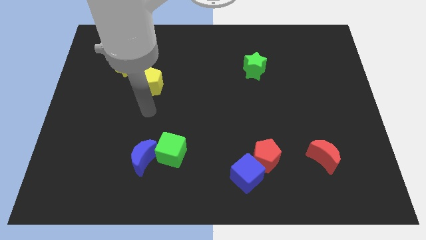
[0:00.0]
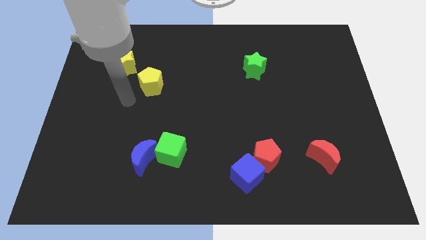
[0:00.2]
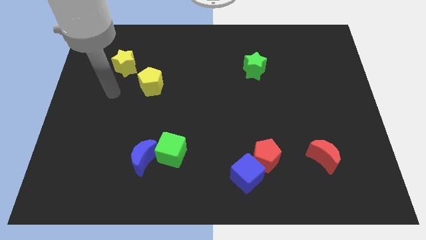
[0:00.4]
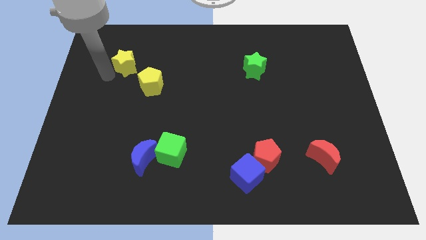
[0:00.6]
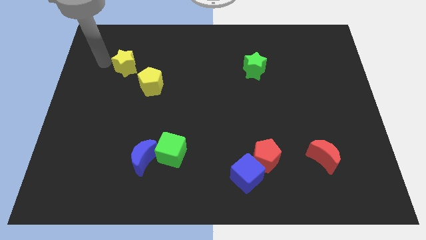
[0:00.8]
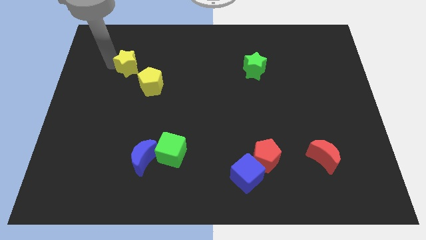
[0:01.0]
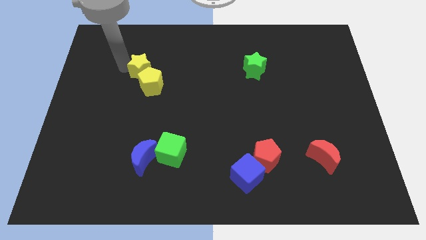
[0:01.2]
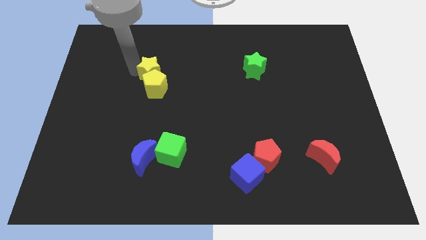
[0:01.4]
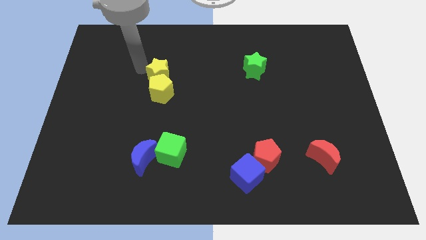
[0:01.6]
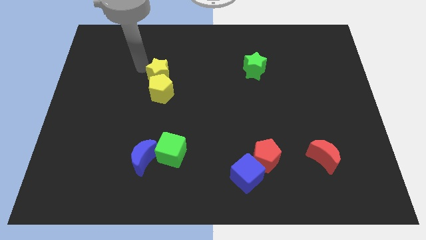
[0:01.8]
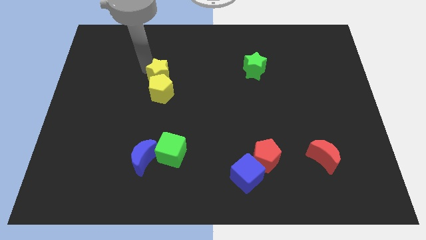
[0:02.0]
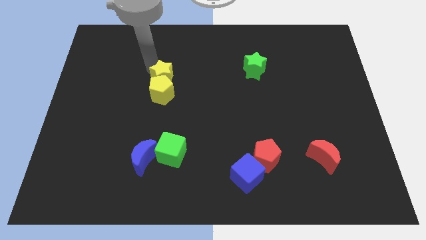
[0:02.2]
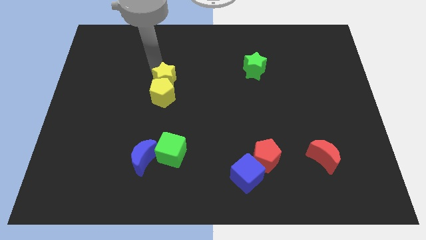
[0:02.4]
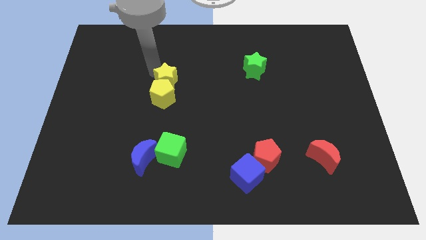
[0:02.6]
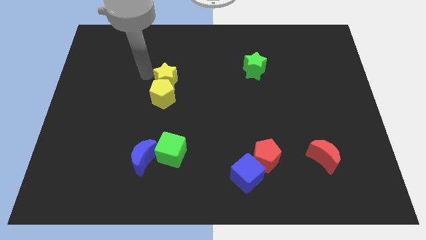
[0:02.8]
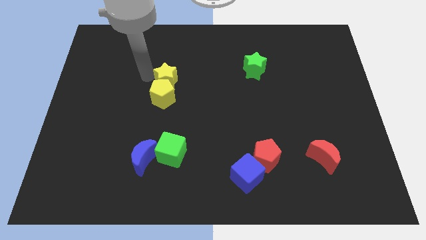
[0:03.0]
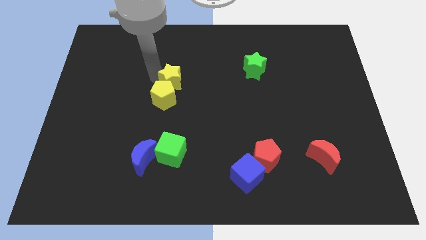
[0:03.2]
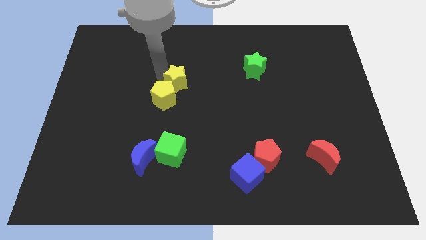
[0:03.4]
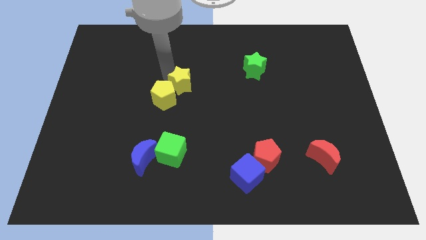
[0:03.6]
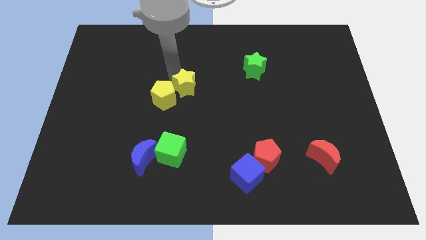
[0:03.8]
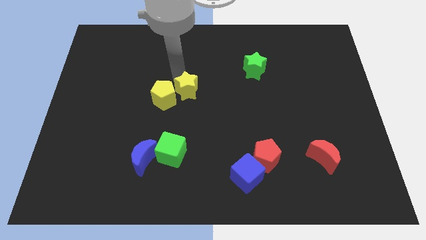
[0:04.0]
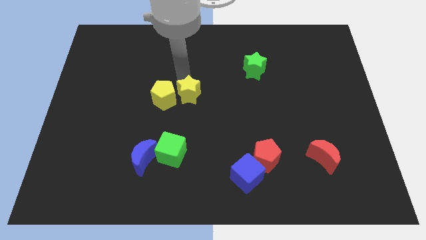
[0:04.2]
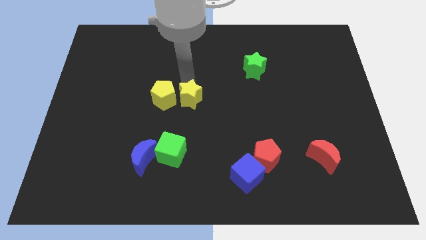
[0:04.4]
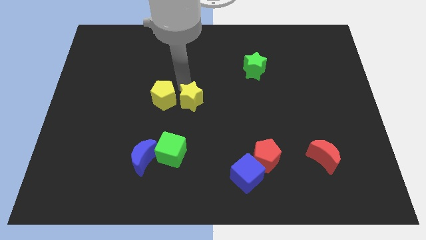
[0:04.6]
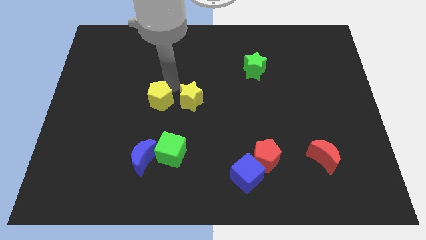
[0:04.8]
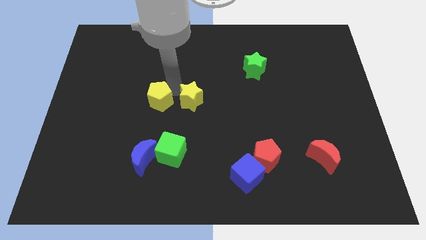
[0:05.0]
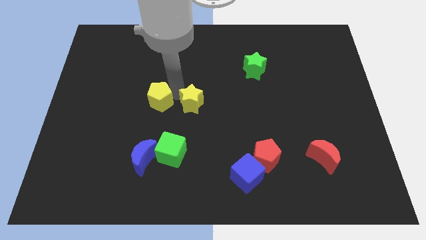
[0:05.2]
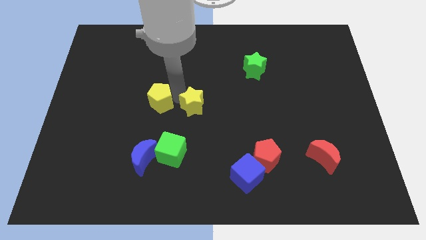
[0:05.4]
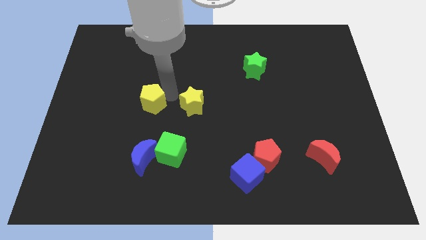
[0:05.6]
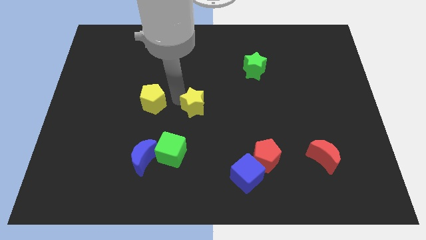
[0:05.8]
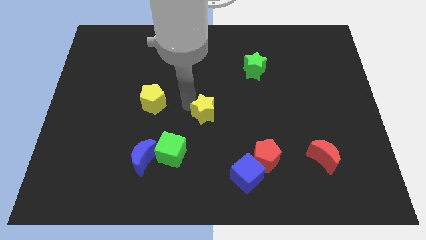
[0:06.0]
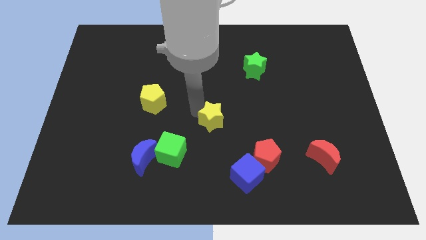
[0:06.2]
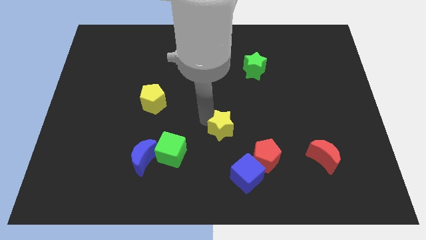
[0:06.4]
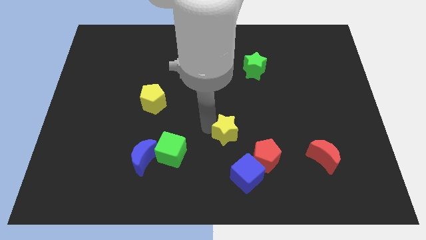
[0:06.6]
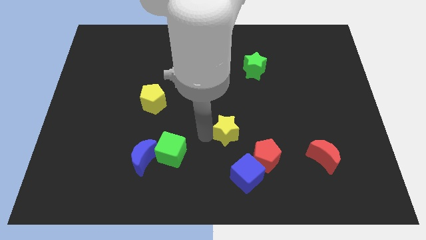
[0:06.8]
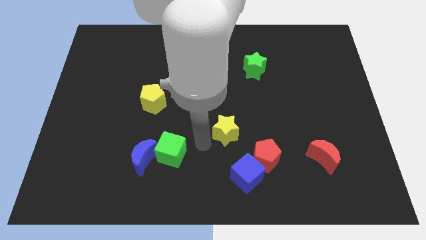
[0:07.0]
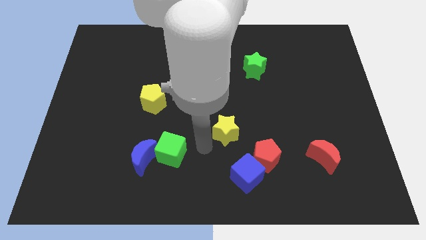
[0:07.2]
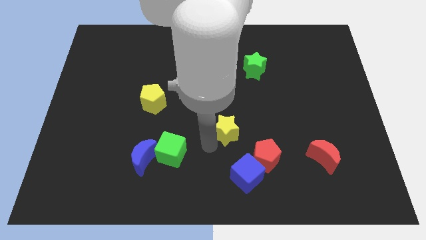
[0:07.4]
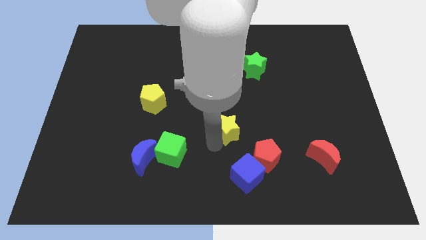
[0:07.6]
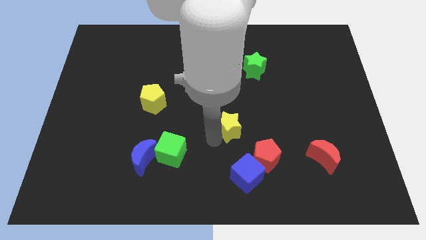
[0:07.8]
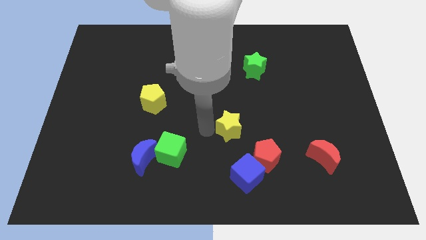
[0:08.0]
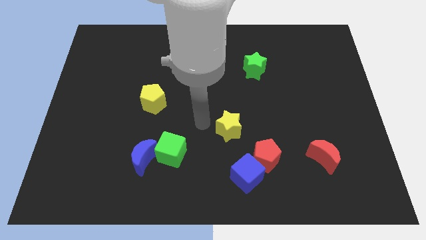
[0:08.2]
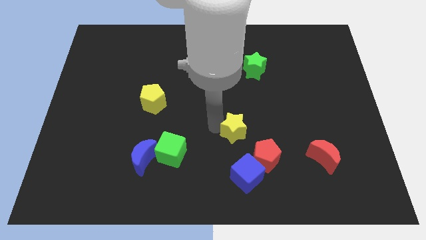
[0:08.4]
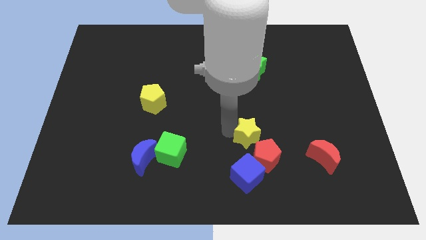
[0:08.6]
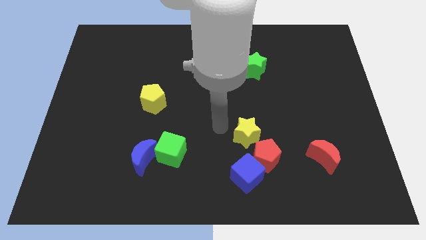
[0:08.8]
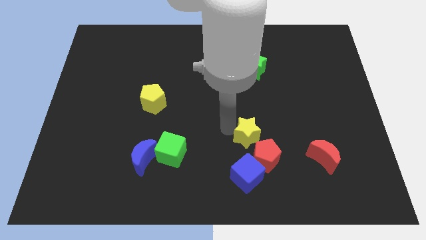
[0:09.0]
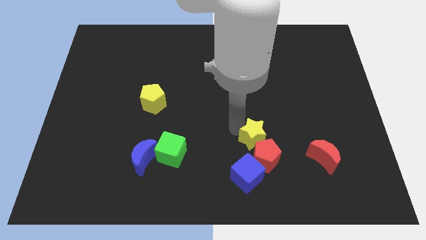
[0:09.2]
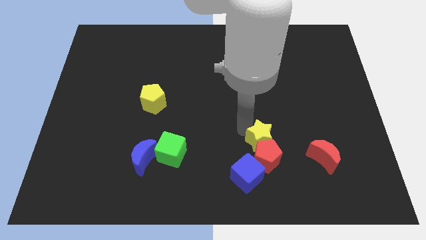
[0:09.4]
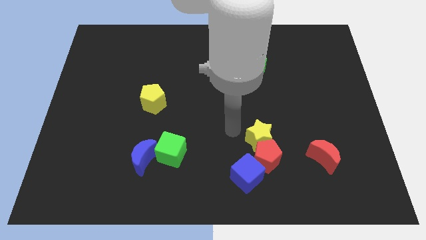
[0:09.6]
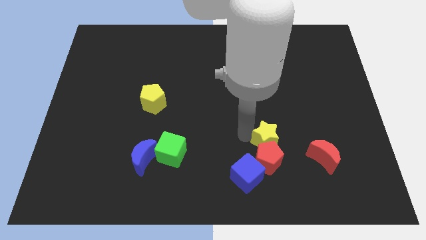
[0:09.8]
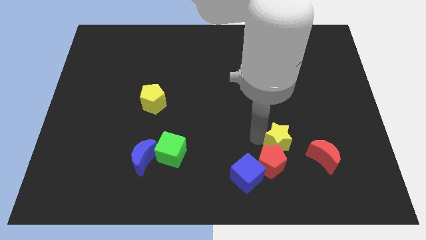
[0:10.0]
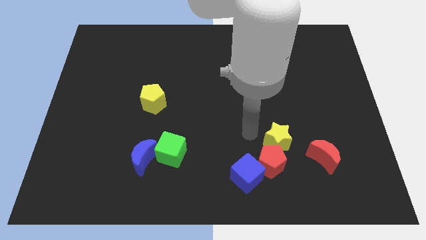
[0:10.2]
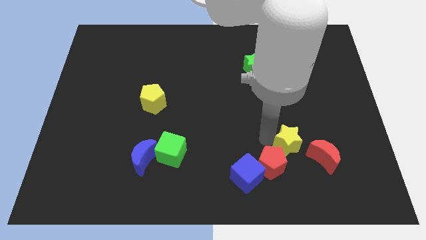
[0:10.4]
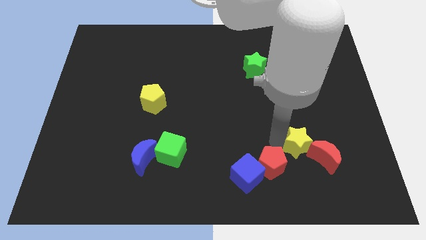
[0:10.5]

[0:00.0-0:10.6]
put the yellow star close to the red moon

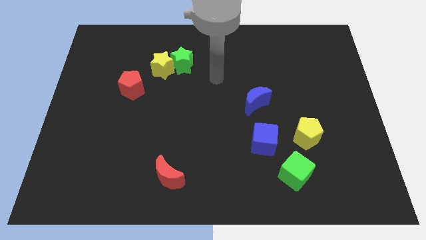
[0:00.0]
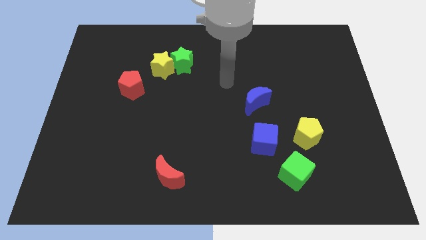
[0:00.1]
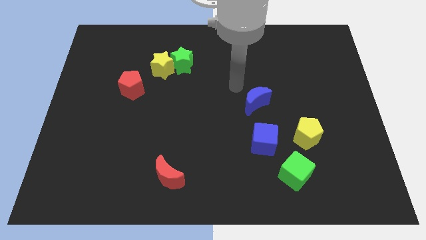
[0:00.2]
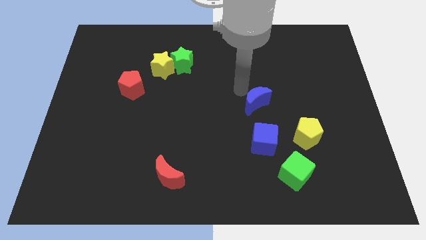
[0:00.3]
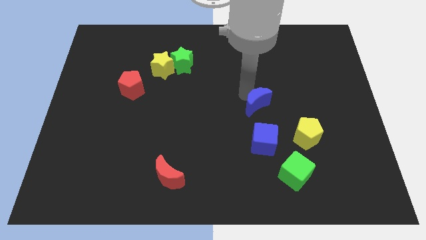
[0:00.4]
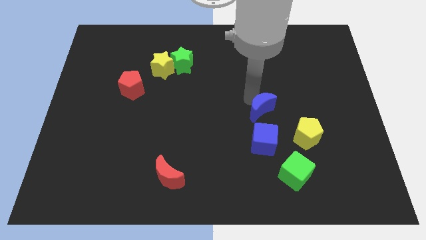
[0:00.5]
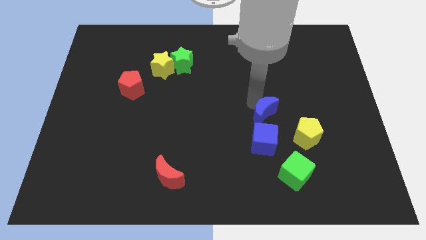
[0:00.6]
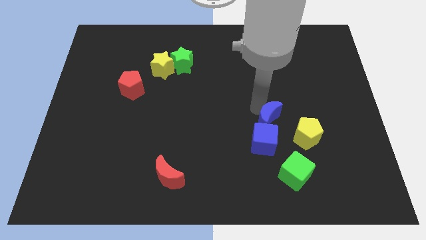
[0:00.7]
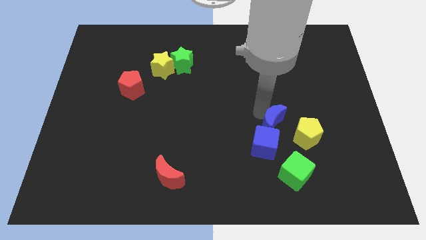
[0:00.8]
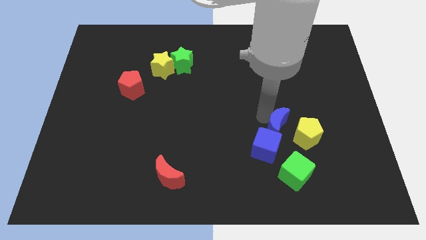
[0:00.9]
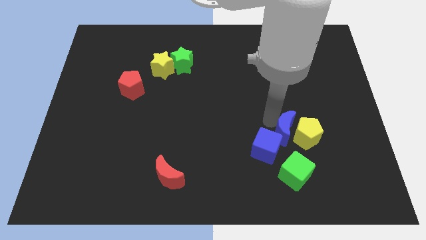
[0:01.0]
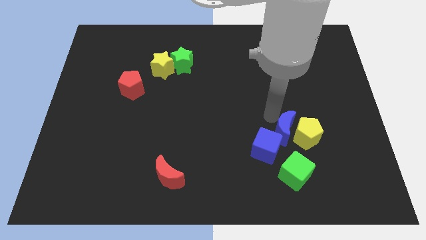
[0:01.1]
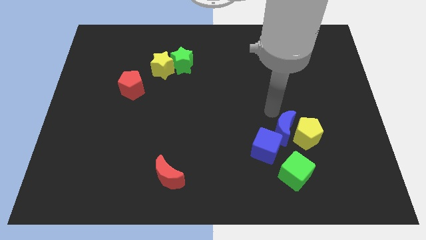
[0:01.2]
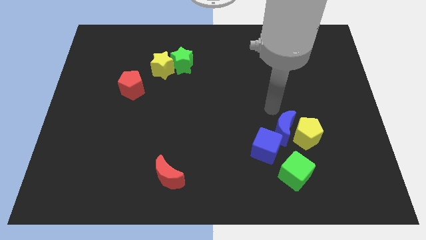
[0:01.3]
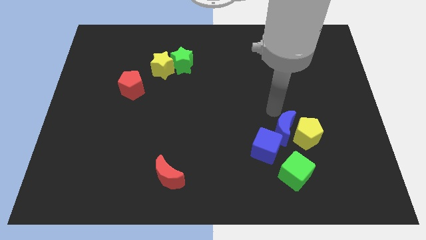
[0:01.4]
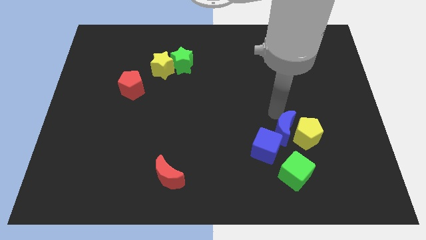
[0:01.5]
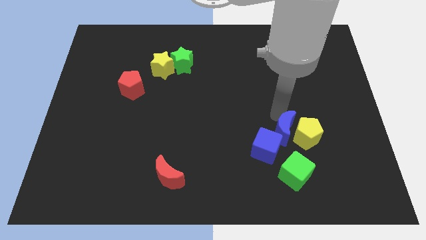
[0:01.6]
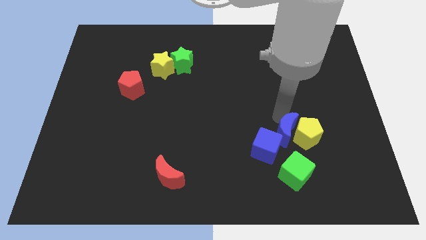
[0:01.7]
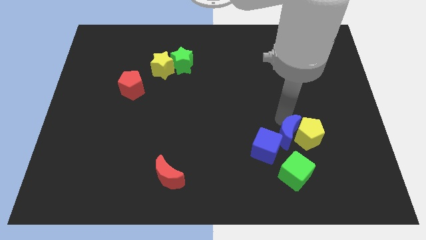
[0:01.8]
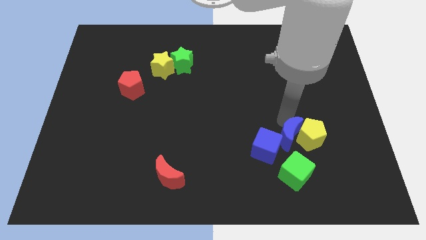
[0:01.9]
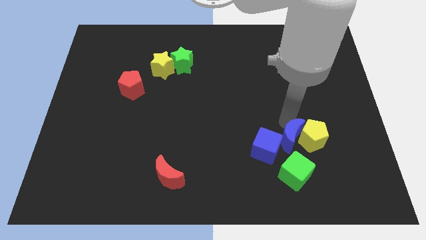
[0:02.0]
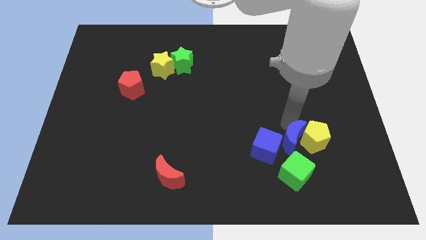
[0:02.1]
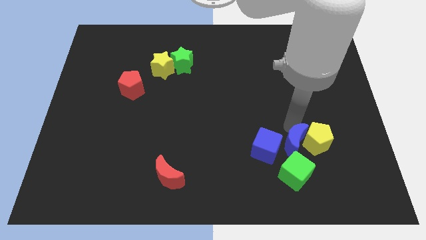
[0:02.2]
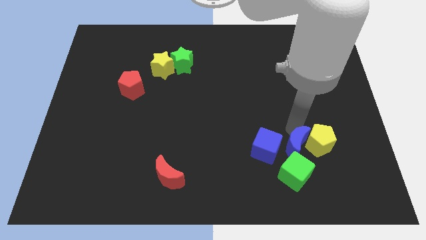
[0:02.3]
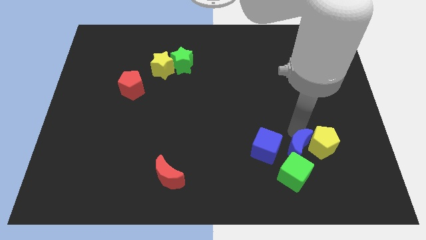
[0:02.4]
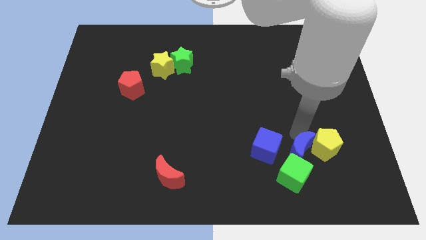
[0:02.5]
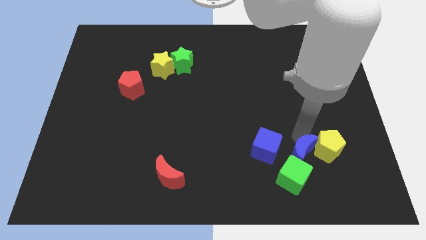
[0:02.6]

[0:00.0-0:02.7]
put the blue moon next to the green cube

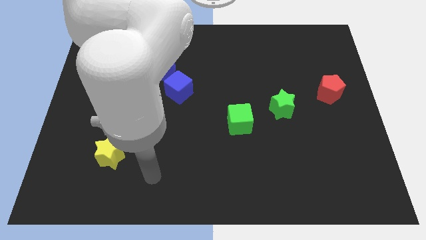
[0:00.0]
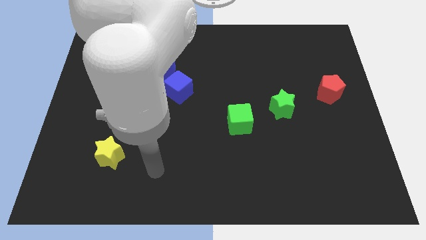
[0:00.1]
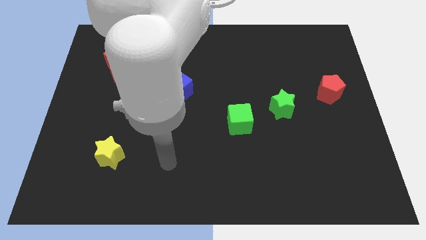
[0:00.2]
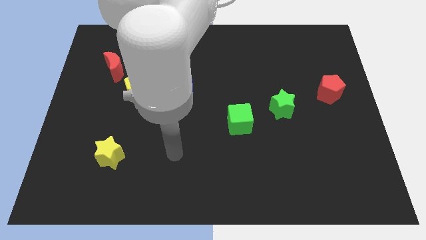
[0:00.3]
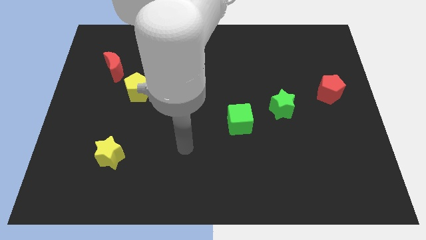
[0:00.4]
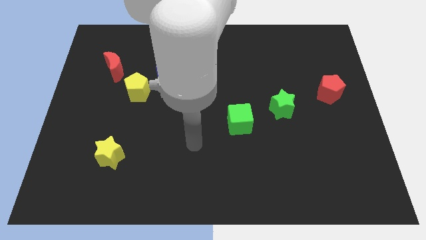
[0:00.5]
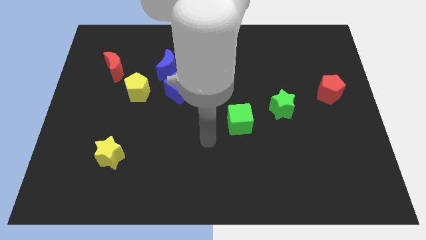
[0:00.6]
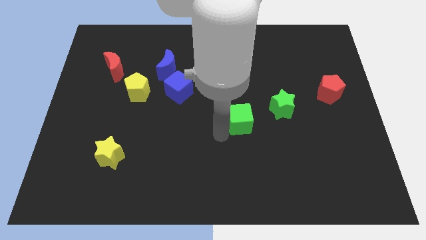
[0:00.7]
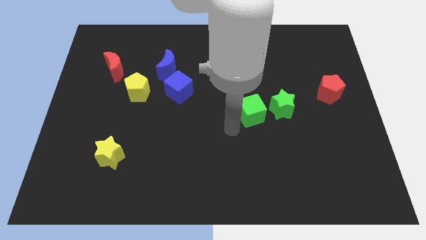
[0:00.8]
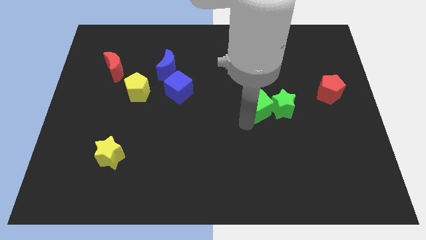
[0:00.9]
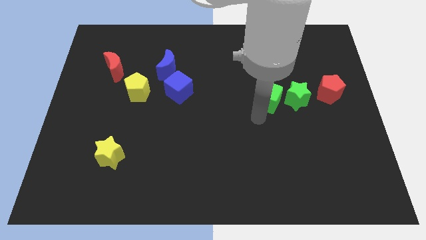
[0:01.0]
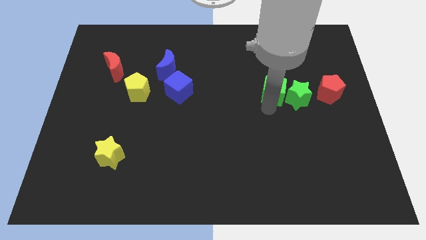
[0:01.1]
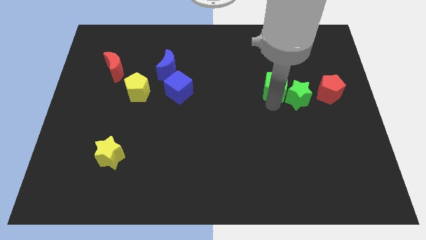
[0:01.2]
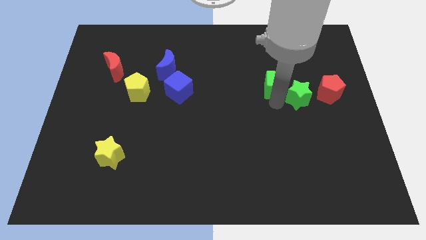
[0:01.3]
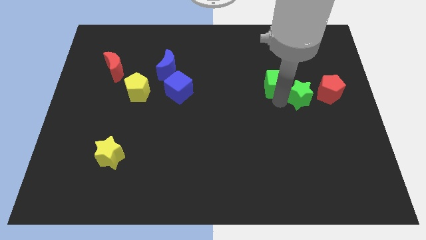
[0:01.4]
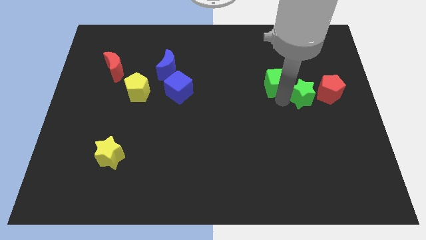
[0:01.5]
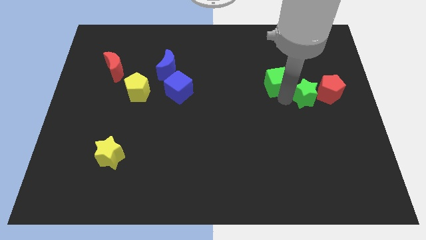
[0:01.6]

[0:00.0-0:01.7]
move the green star to the red pentagon
